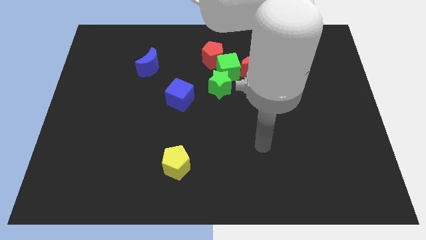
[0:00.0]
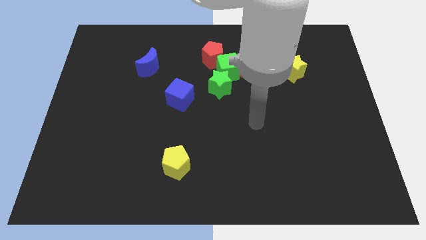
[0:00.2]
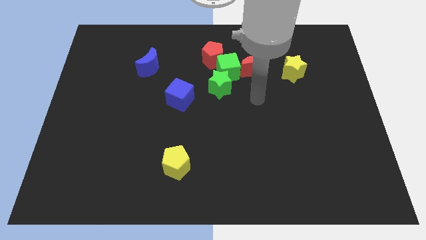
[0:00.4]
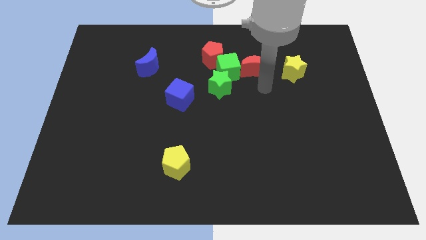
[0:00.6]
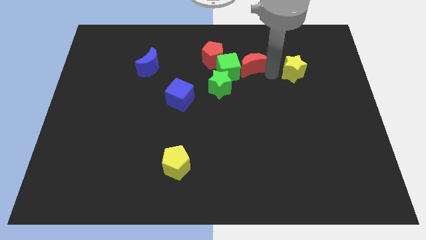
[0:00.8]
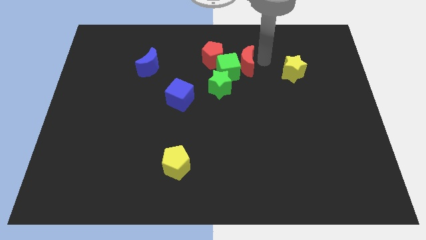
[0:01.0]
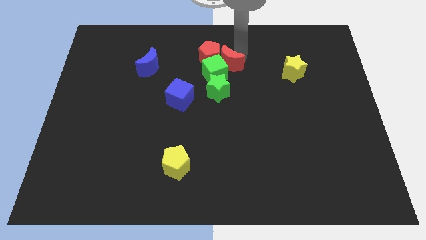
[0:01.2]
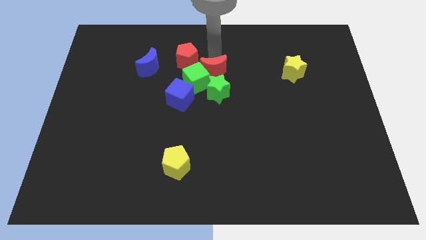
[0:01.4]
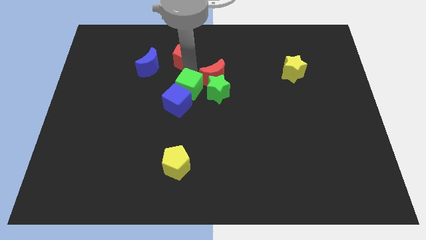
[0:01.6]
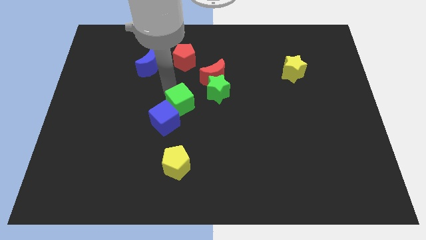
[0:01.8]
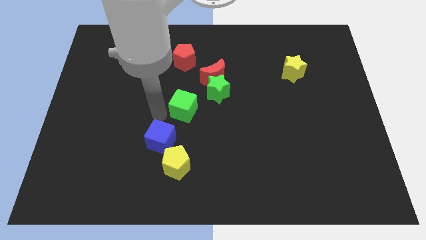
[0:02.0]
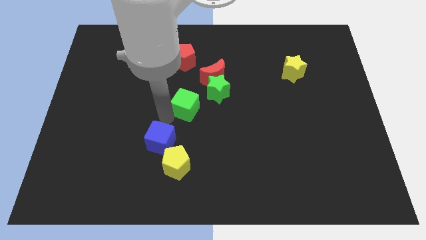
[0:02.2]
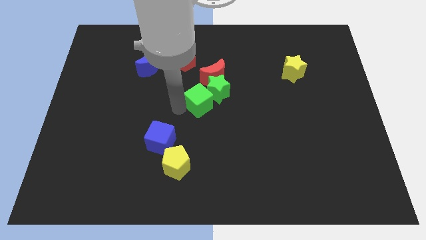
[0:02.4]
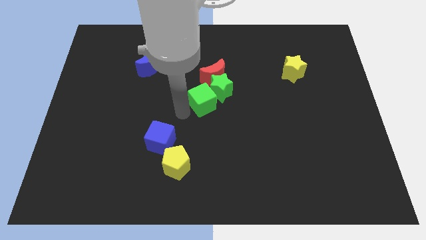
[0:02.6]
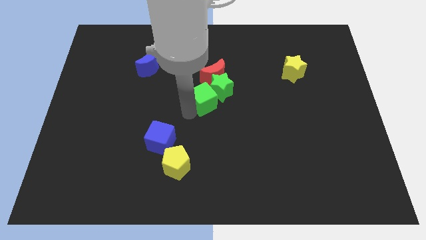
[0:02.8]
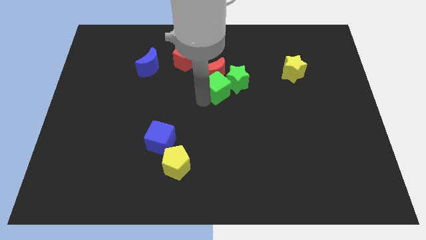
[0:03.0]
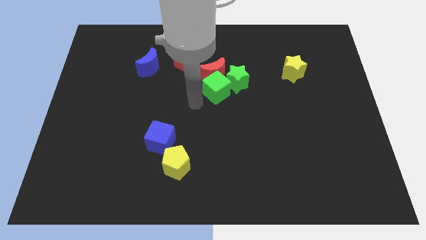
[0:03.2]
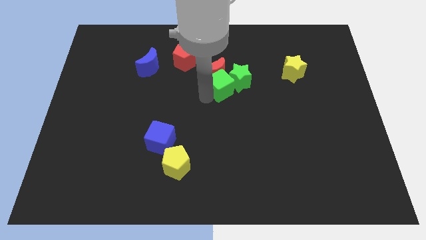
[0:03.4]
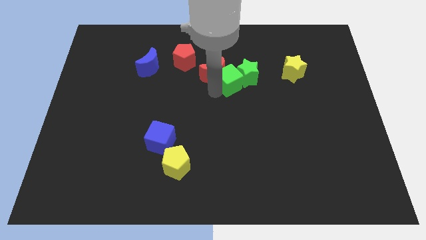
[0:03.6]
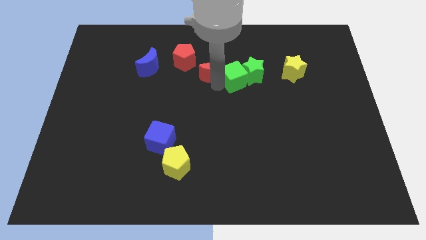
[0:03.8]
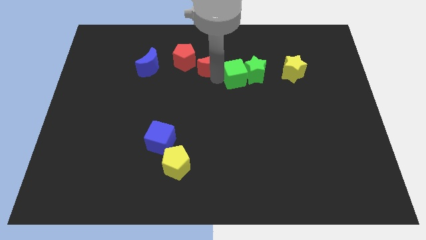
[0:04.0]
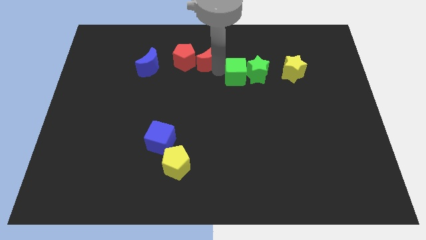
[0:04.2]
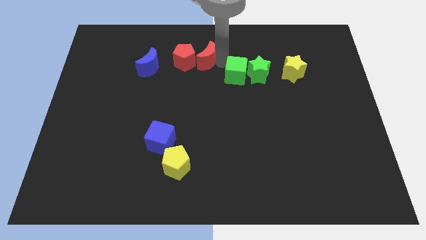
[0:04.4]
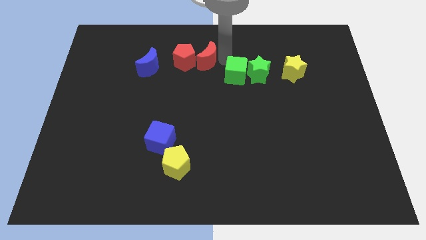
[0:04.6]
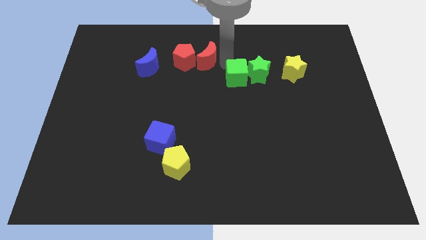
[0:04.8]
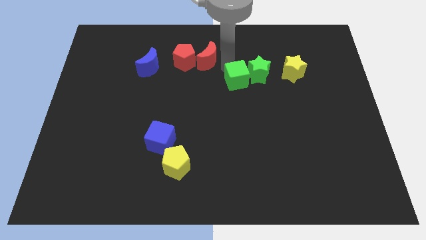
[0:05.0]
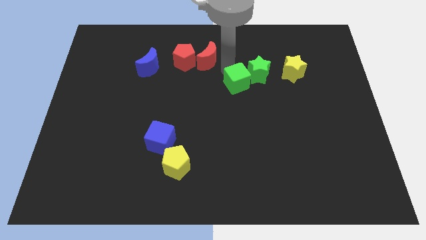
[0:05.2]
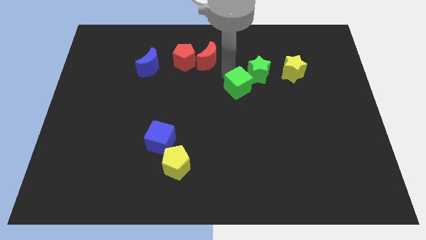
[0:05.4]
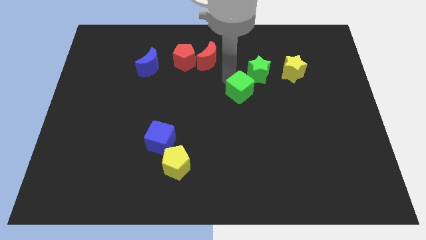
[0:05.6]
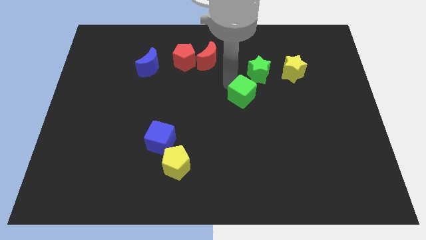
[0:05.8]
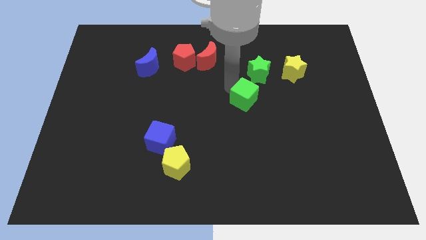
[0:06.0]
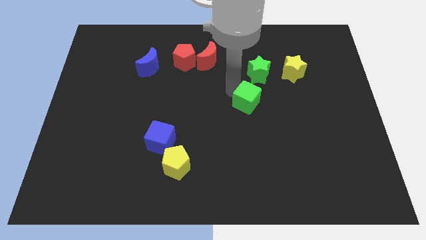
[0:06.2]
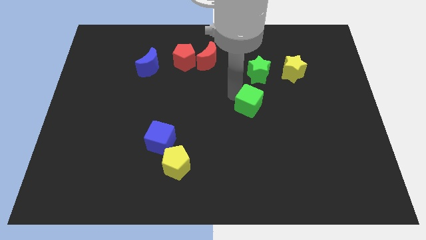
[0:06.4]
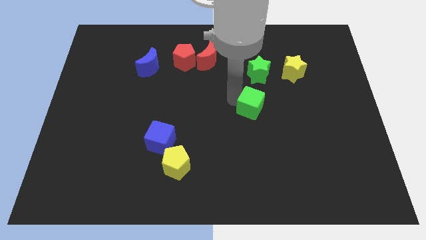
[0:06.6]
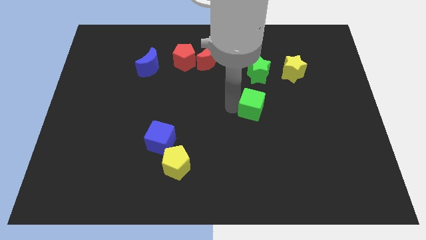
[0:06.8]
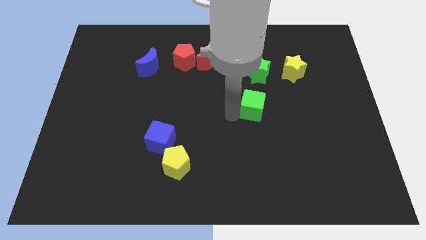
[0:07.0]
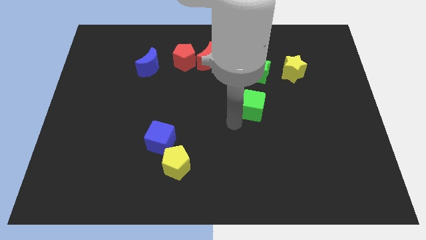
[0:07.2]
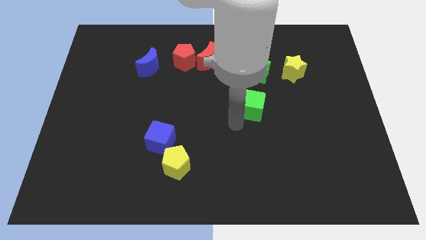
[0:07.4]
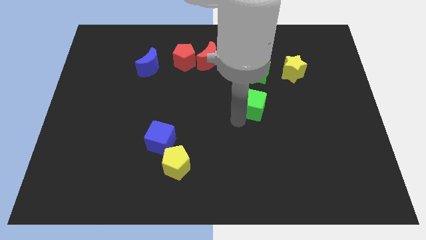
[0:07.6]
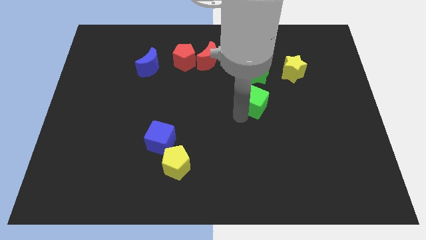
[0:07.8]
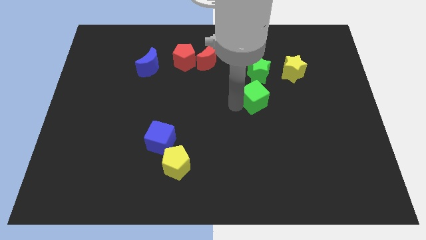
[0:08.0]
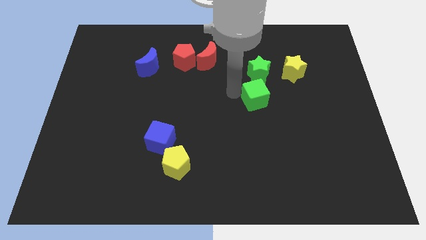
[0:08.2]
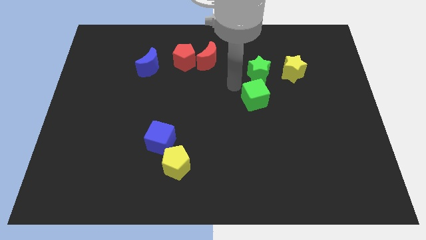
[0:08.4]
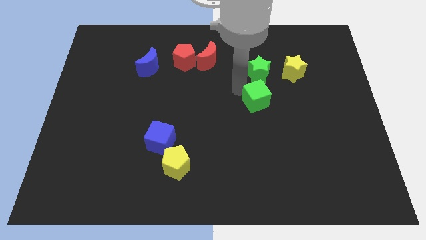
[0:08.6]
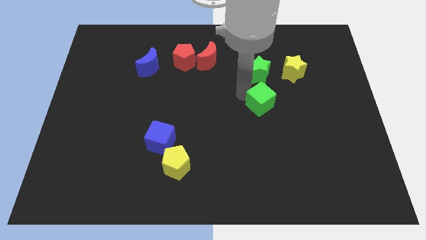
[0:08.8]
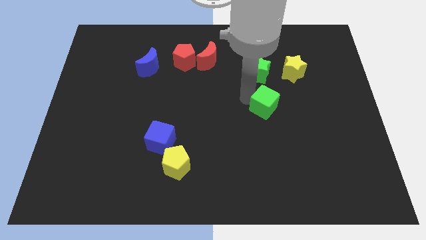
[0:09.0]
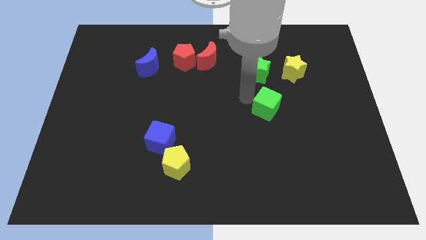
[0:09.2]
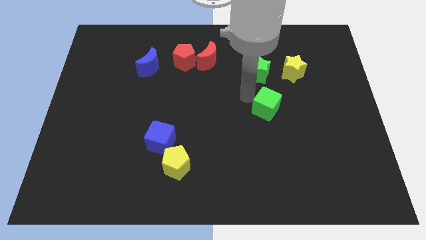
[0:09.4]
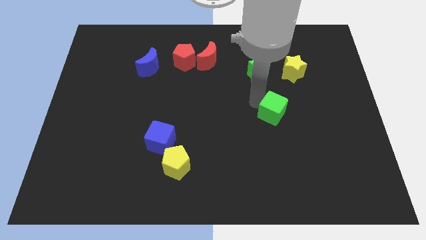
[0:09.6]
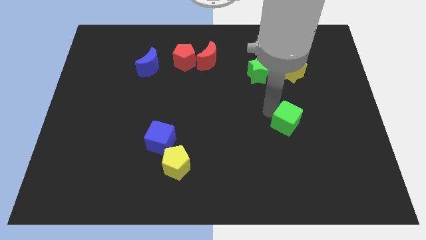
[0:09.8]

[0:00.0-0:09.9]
slide the green cube down and right

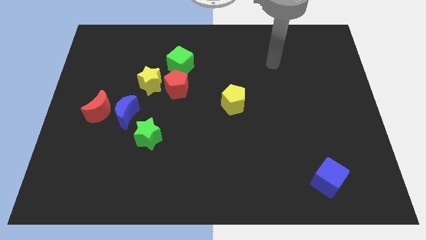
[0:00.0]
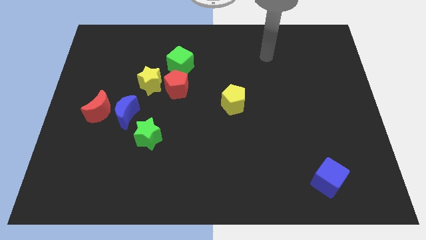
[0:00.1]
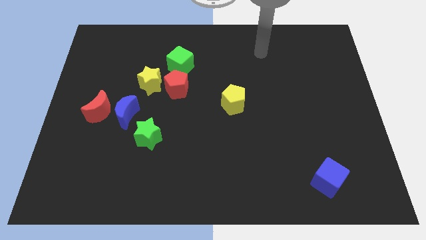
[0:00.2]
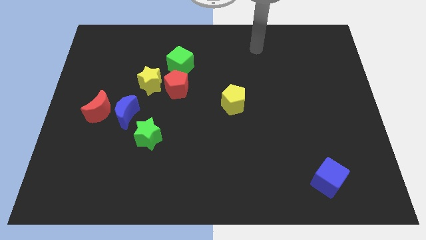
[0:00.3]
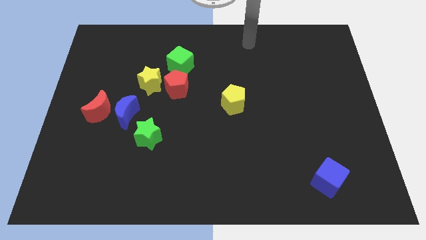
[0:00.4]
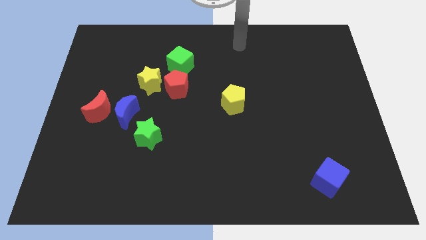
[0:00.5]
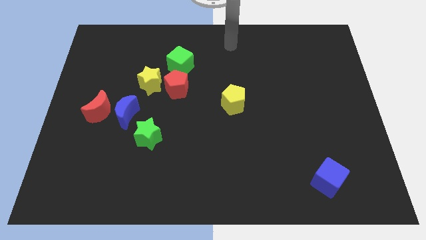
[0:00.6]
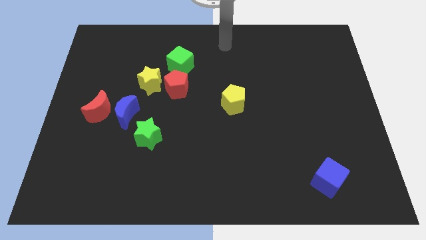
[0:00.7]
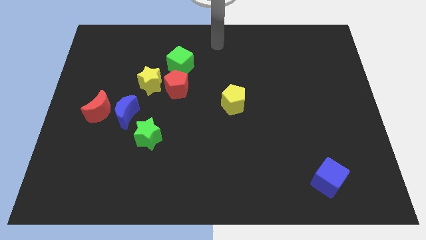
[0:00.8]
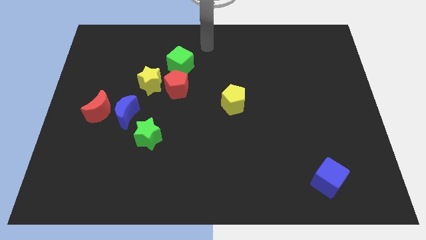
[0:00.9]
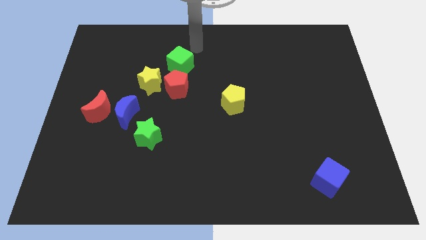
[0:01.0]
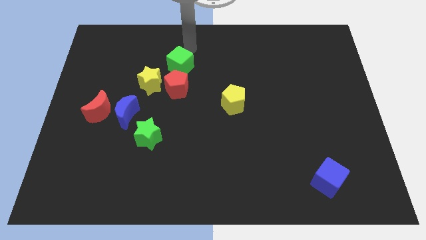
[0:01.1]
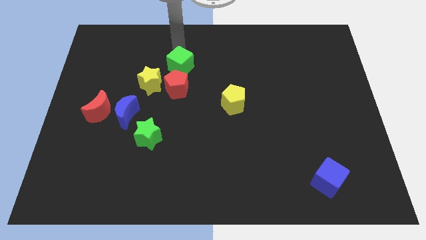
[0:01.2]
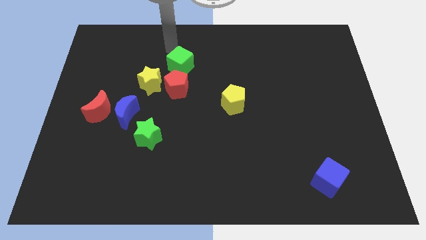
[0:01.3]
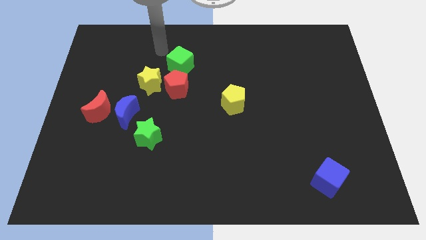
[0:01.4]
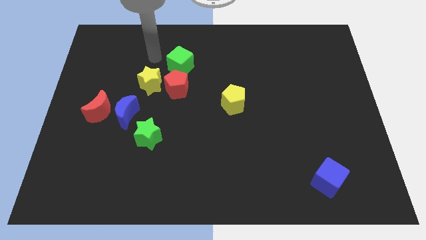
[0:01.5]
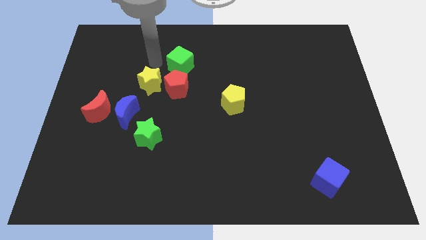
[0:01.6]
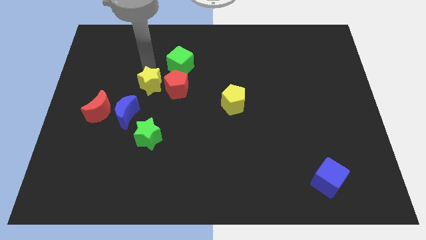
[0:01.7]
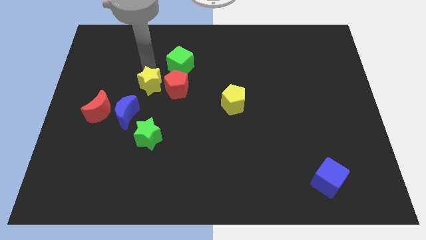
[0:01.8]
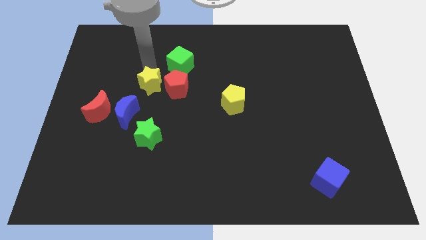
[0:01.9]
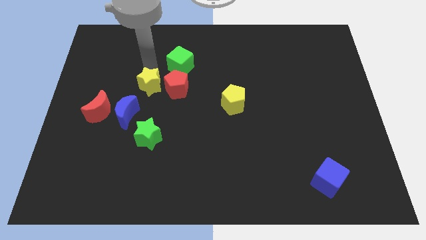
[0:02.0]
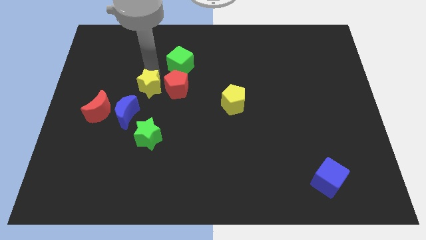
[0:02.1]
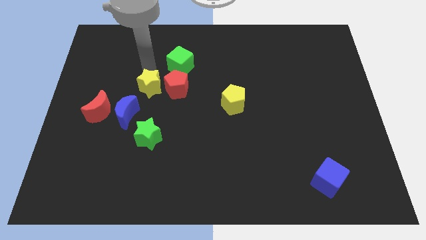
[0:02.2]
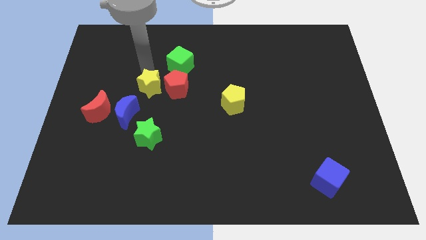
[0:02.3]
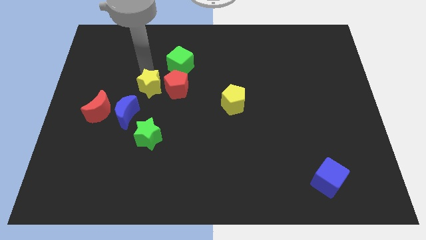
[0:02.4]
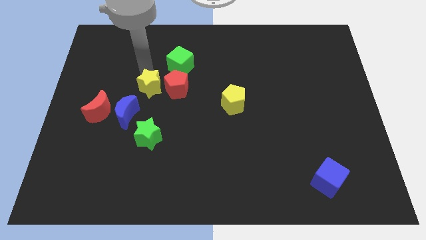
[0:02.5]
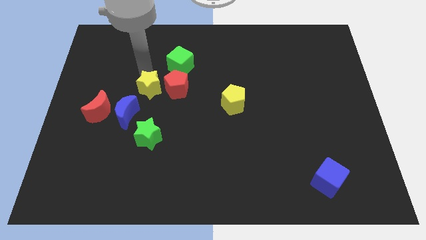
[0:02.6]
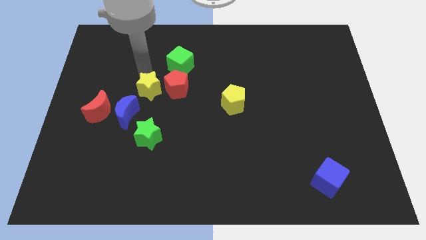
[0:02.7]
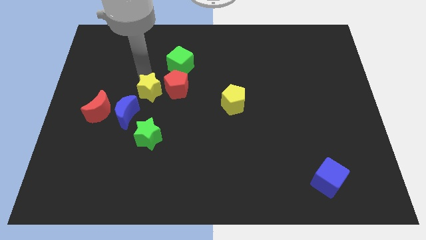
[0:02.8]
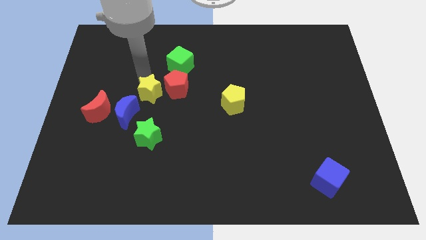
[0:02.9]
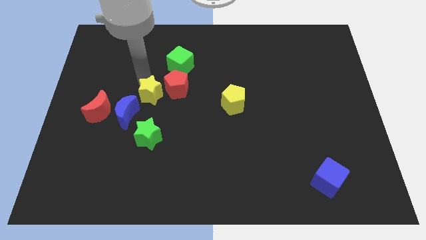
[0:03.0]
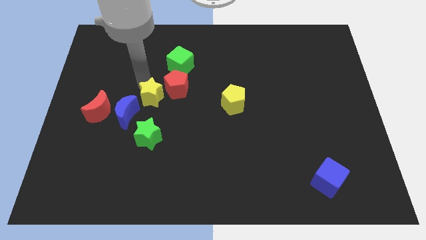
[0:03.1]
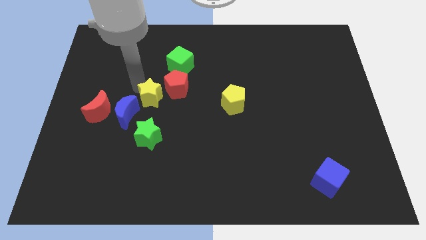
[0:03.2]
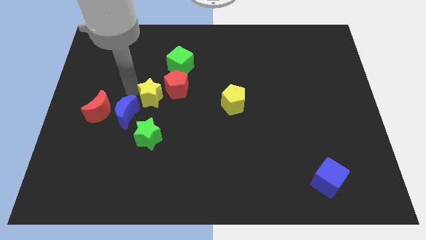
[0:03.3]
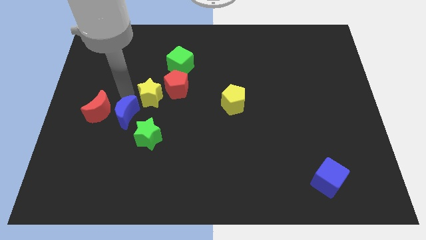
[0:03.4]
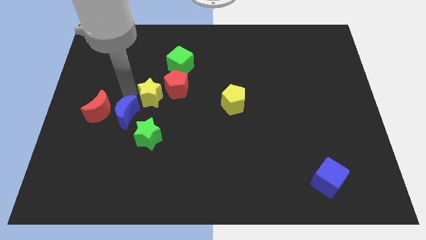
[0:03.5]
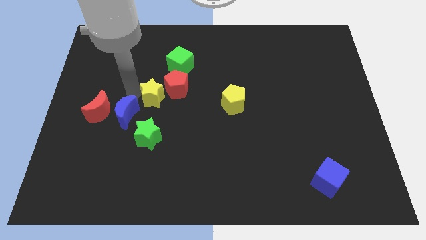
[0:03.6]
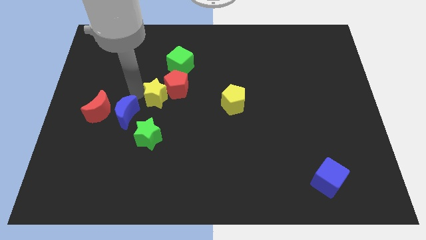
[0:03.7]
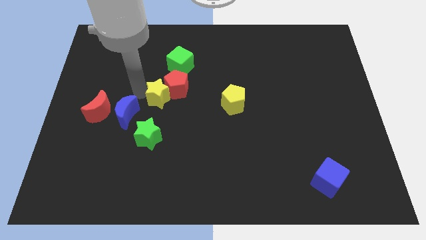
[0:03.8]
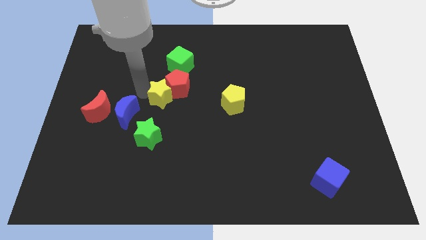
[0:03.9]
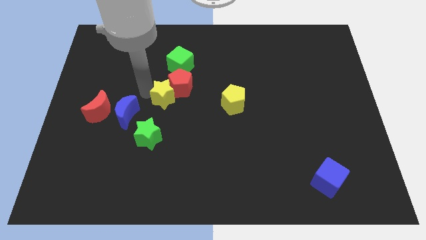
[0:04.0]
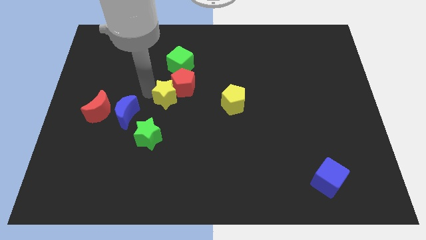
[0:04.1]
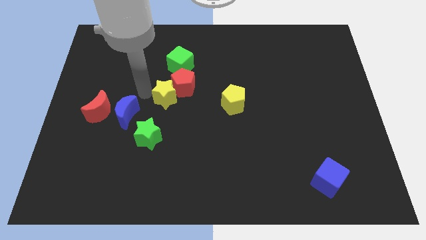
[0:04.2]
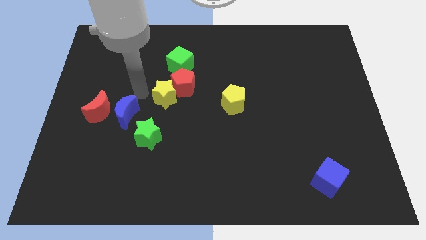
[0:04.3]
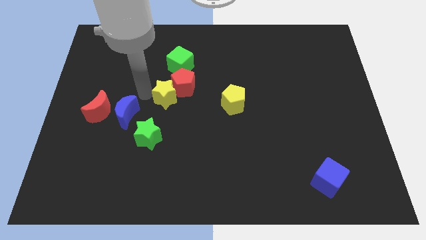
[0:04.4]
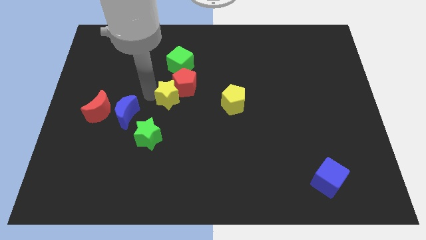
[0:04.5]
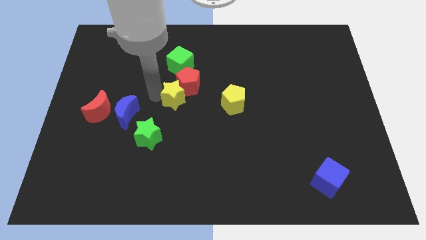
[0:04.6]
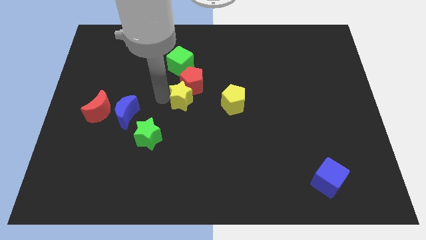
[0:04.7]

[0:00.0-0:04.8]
push the yellow star right a little
